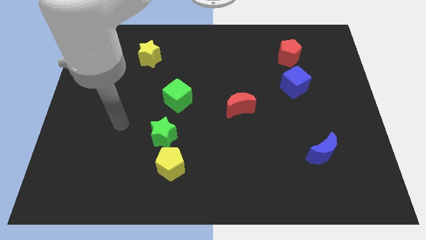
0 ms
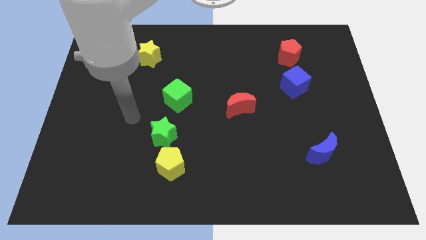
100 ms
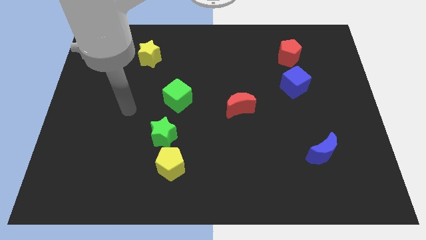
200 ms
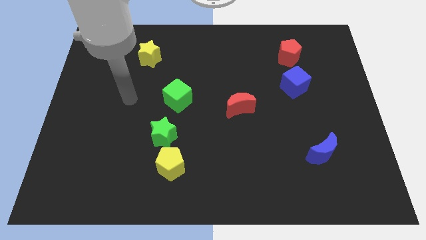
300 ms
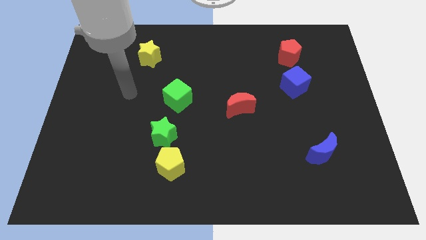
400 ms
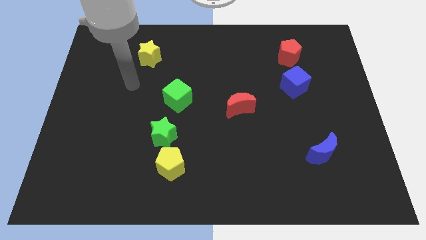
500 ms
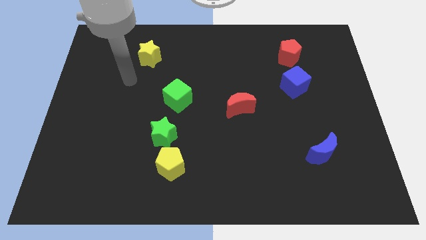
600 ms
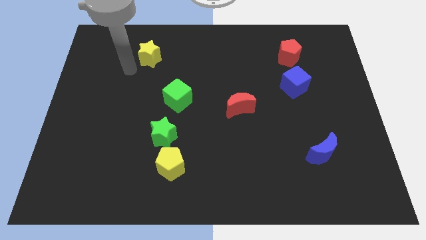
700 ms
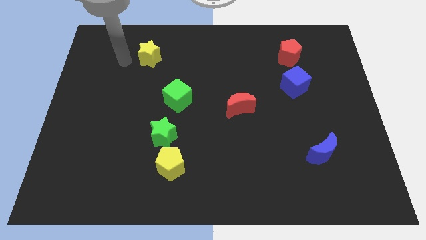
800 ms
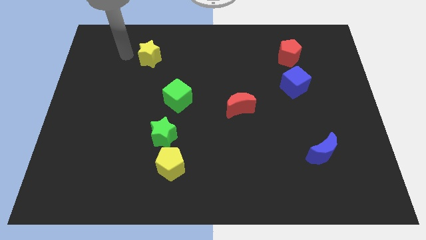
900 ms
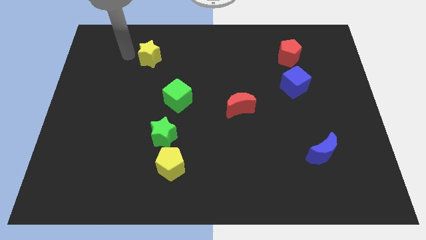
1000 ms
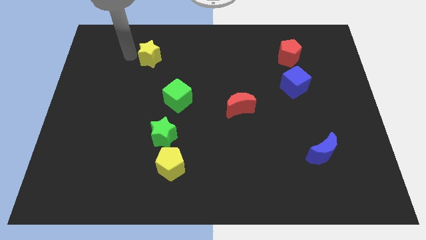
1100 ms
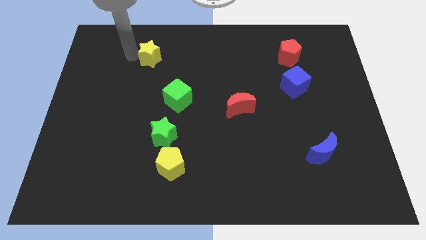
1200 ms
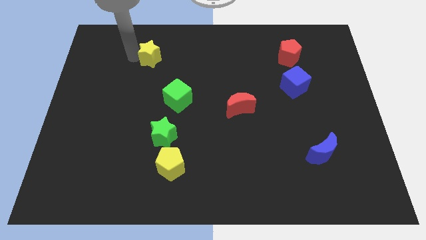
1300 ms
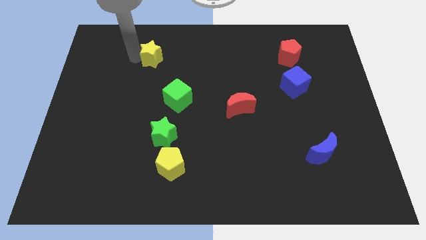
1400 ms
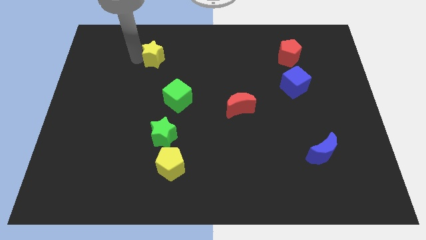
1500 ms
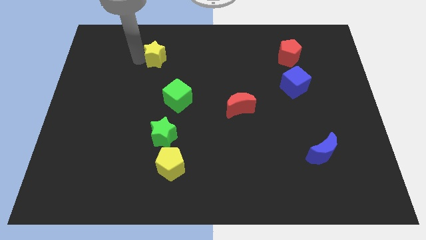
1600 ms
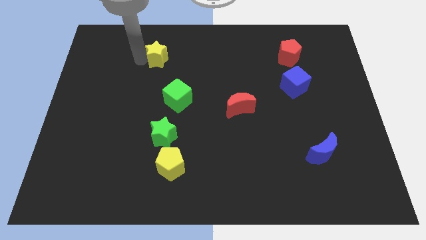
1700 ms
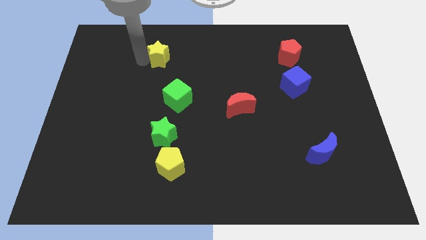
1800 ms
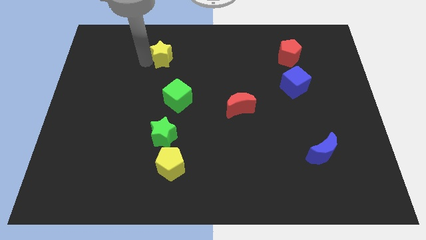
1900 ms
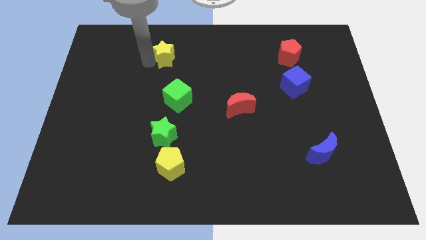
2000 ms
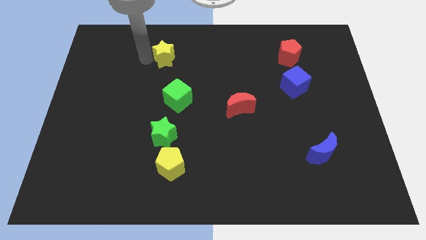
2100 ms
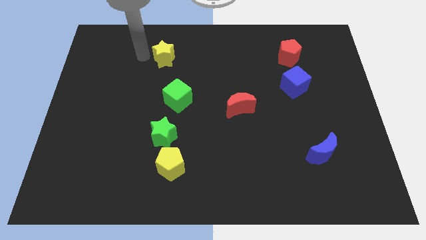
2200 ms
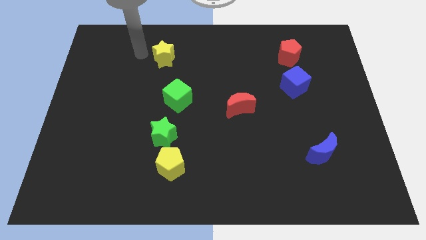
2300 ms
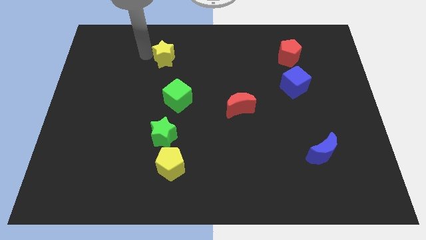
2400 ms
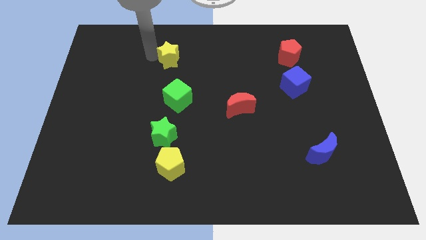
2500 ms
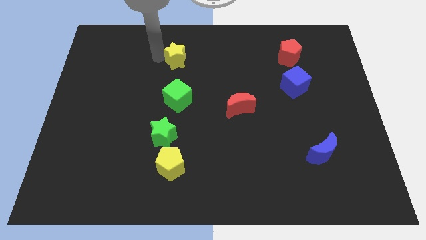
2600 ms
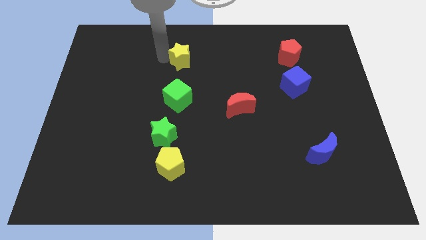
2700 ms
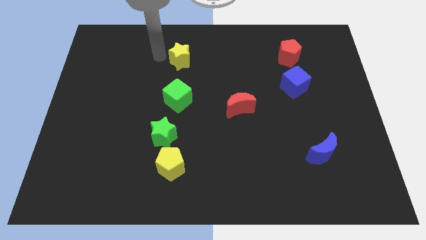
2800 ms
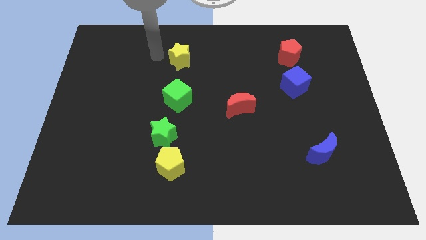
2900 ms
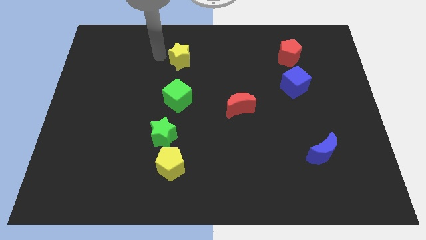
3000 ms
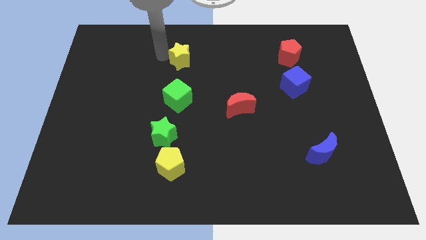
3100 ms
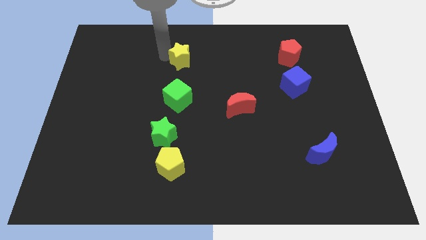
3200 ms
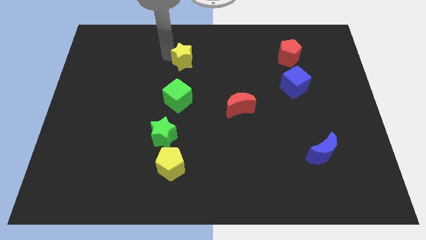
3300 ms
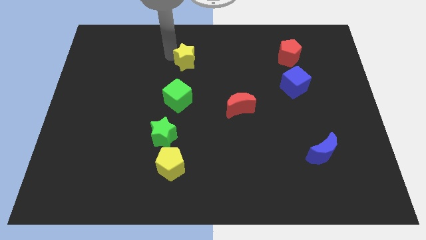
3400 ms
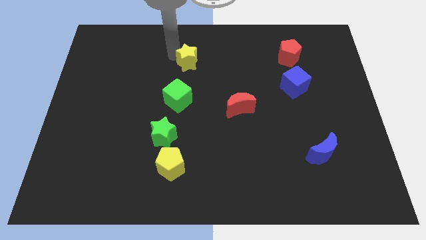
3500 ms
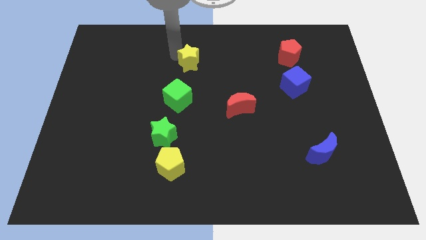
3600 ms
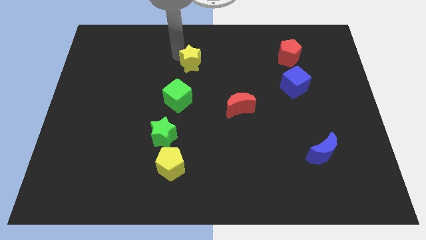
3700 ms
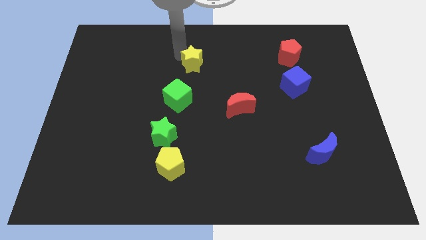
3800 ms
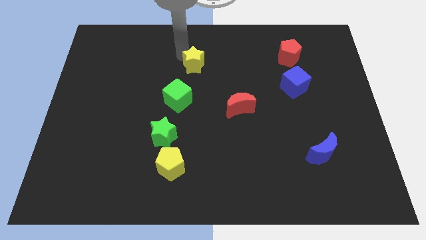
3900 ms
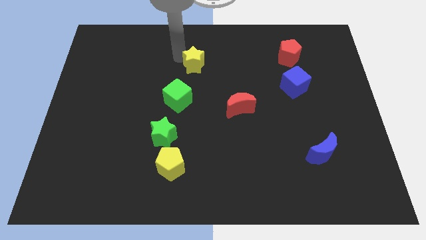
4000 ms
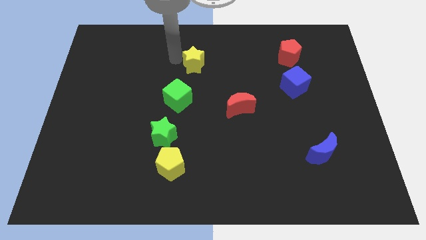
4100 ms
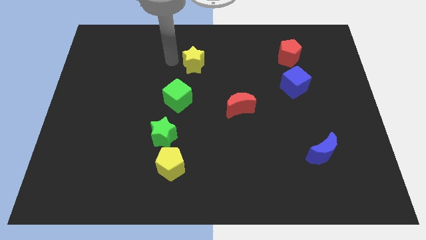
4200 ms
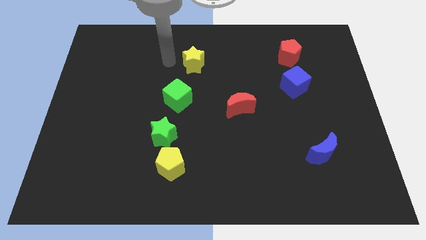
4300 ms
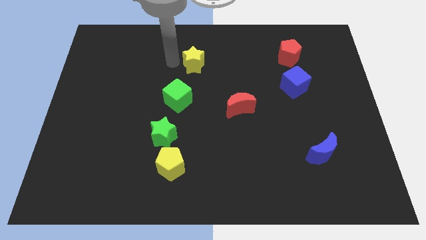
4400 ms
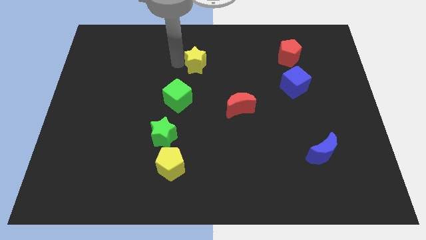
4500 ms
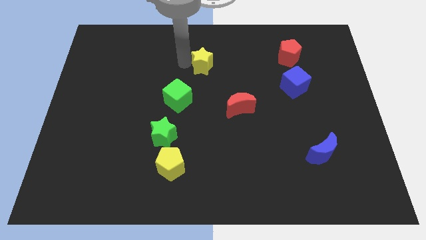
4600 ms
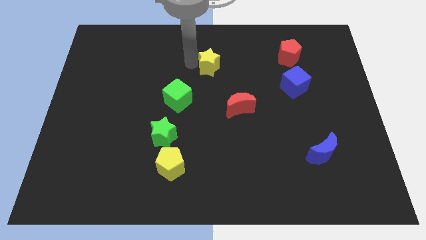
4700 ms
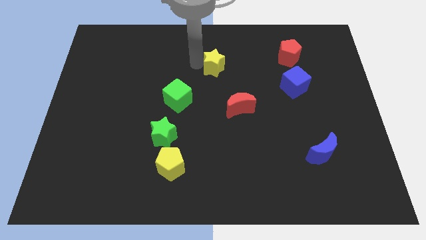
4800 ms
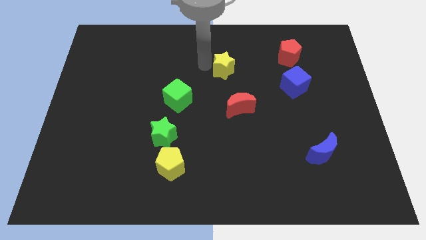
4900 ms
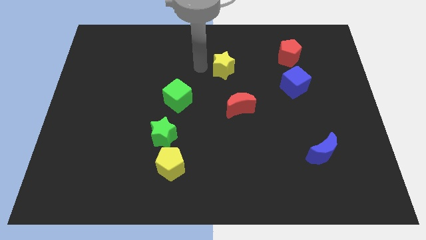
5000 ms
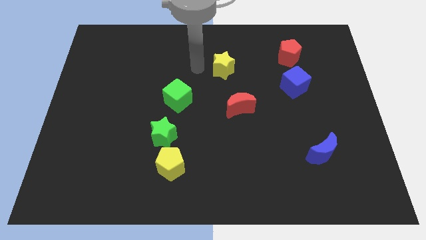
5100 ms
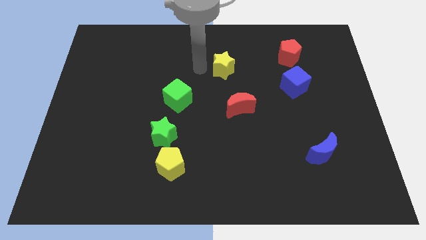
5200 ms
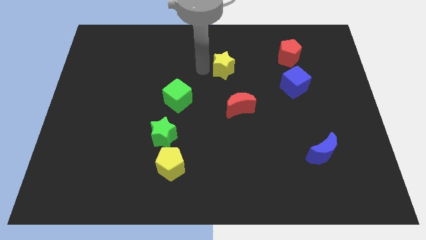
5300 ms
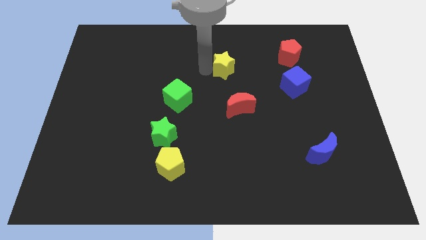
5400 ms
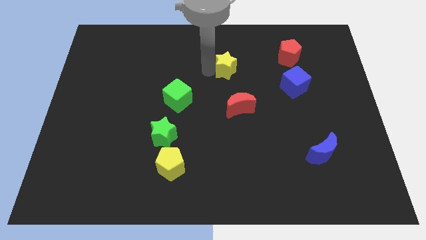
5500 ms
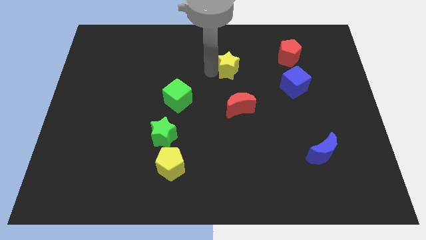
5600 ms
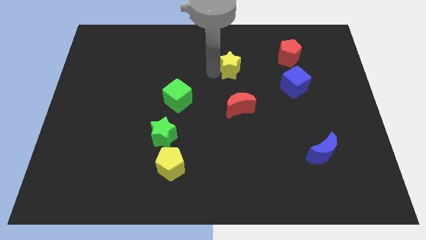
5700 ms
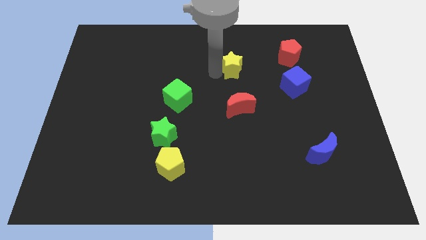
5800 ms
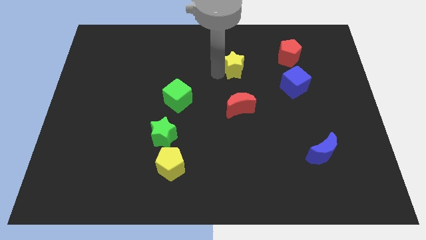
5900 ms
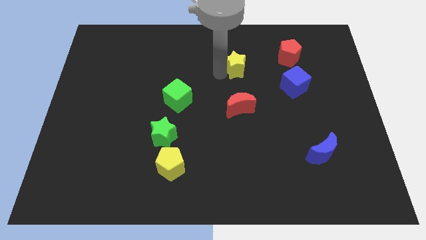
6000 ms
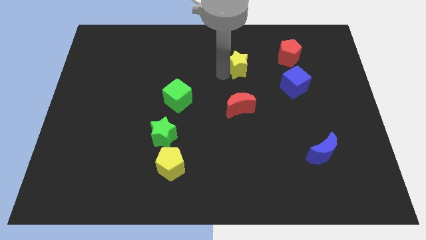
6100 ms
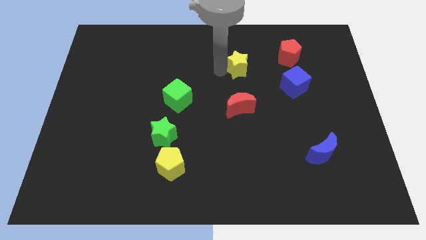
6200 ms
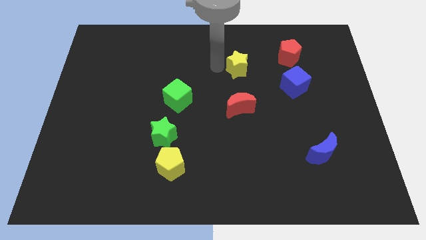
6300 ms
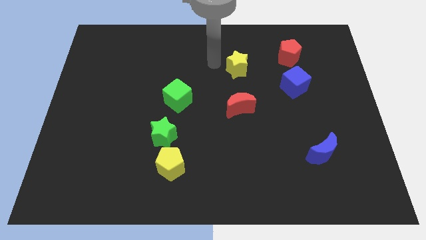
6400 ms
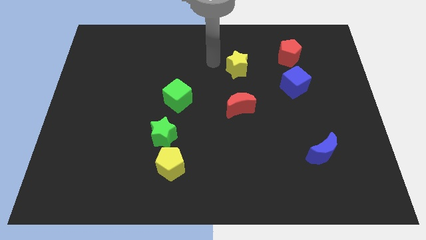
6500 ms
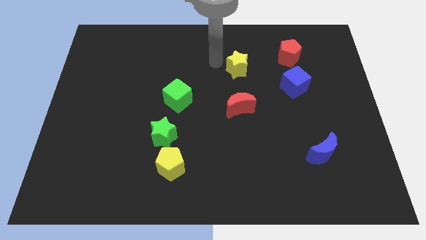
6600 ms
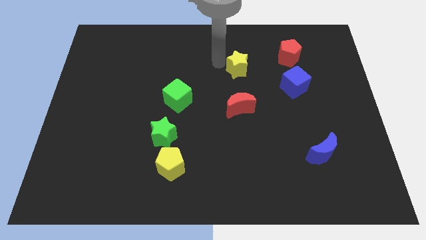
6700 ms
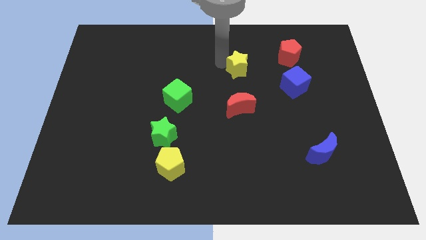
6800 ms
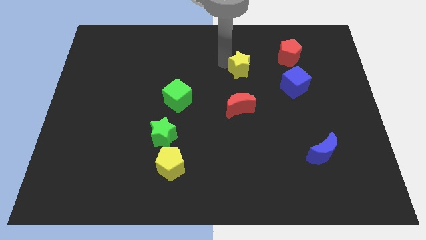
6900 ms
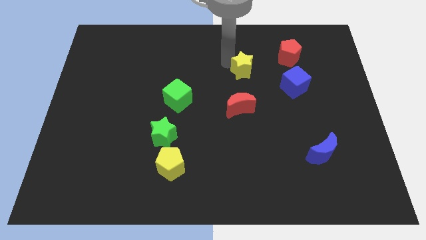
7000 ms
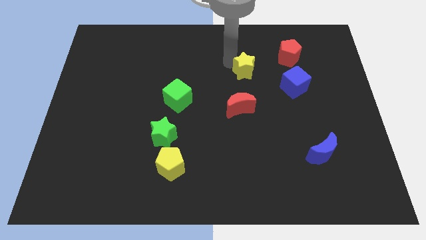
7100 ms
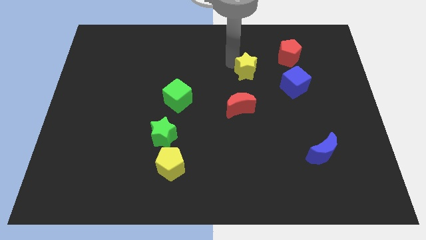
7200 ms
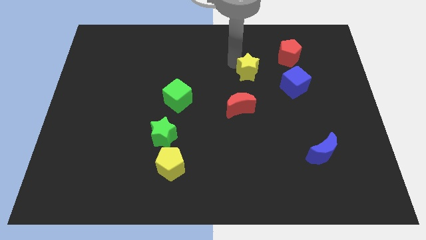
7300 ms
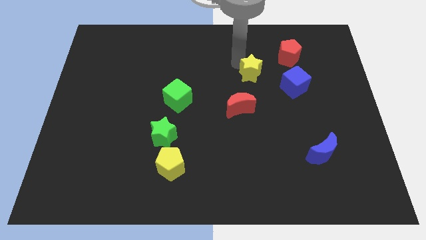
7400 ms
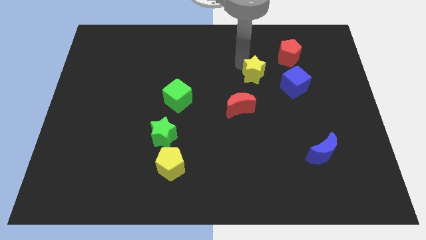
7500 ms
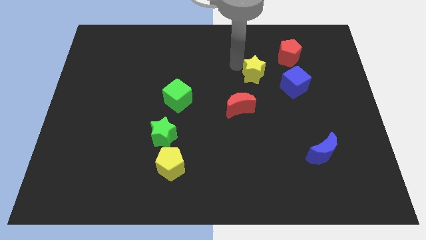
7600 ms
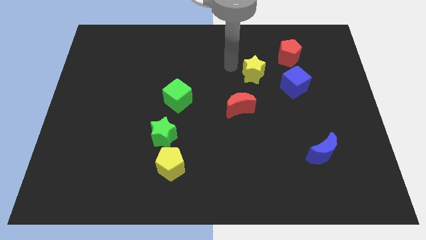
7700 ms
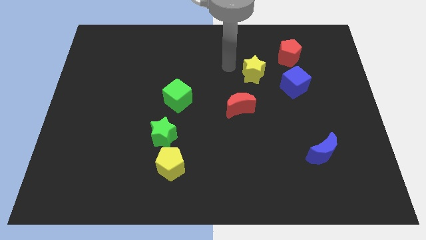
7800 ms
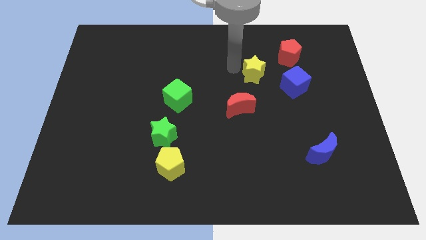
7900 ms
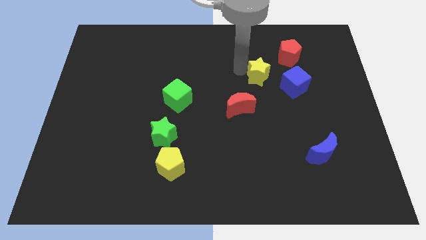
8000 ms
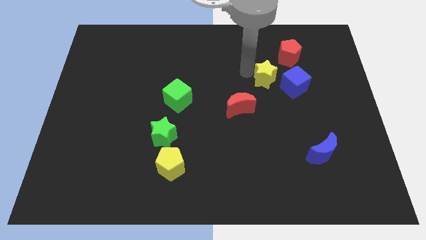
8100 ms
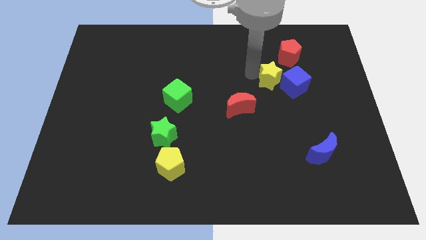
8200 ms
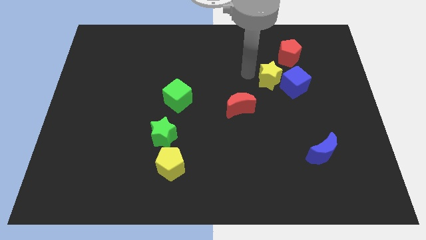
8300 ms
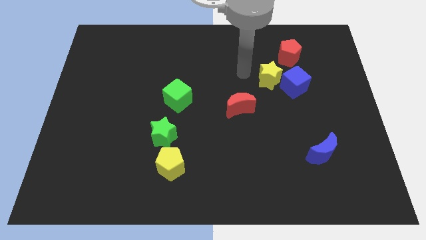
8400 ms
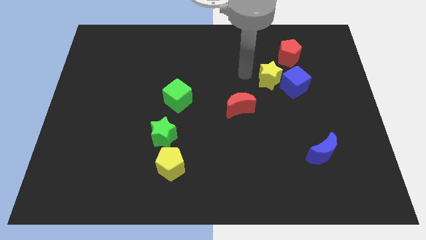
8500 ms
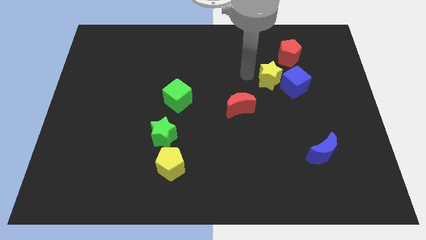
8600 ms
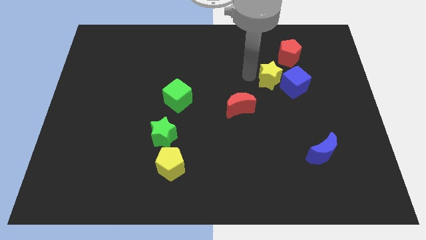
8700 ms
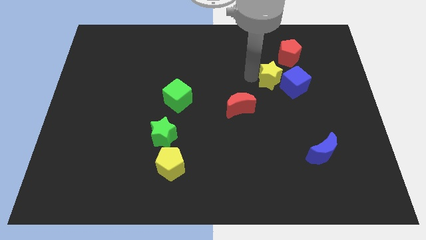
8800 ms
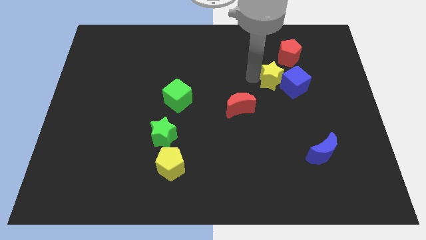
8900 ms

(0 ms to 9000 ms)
push the yellow star next to the blue cube
